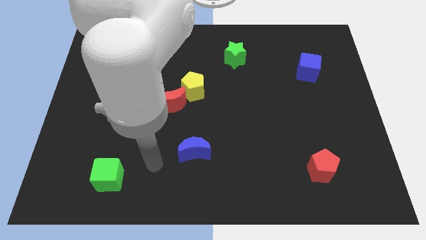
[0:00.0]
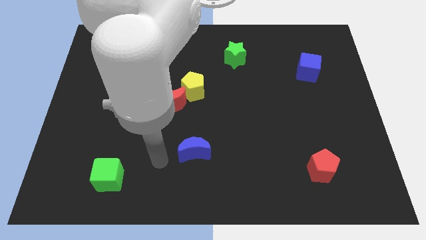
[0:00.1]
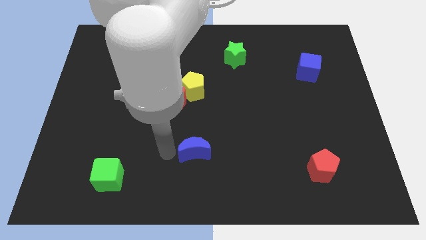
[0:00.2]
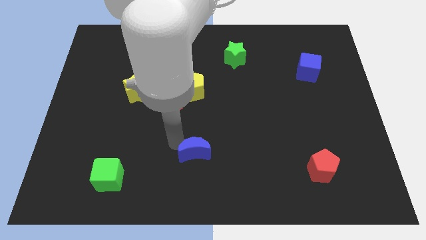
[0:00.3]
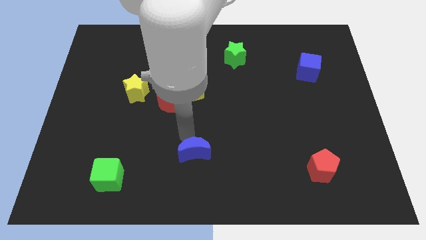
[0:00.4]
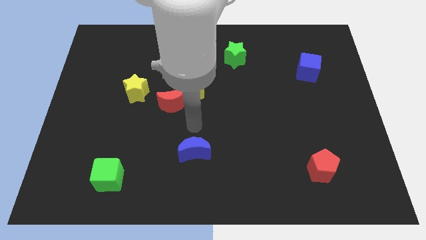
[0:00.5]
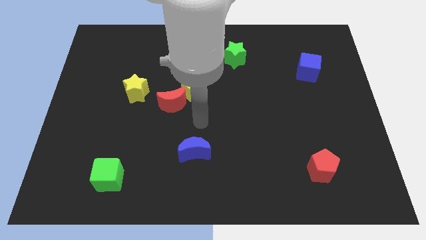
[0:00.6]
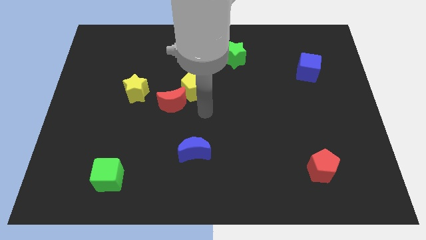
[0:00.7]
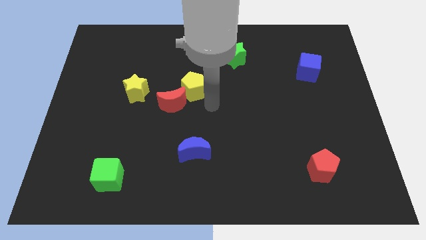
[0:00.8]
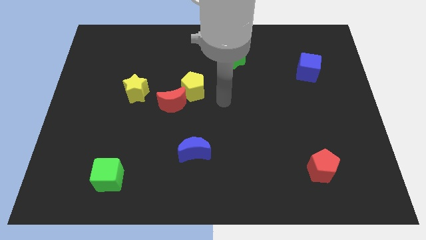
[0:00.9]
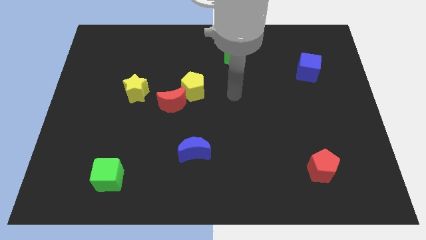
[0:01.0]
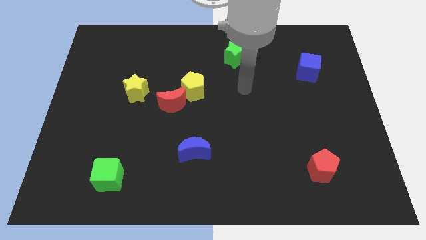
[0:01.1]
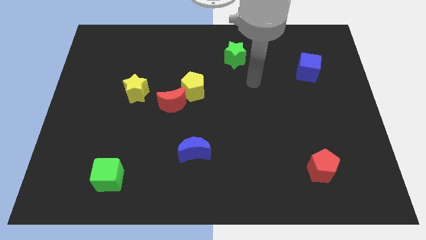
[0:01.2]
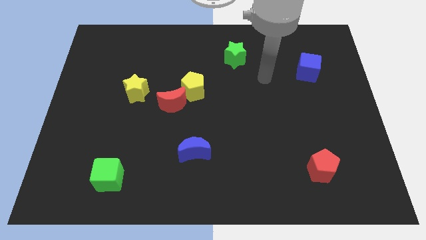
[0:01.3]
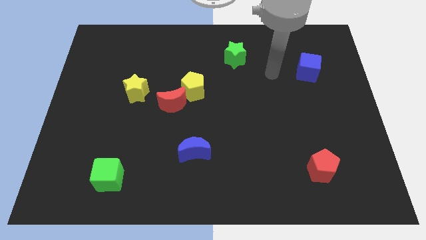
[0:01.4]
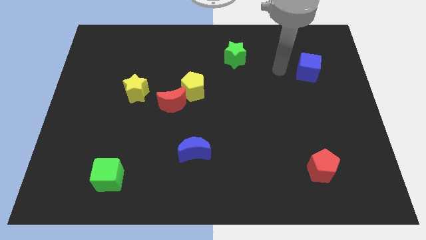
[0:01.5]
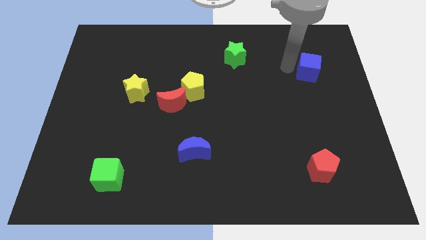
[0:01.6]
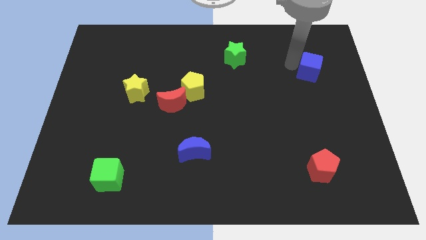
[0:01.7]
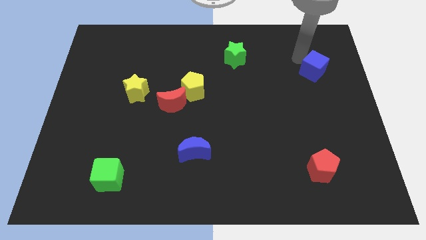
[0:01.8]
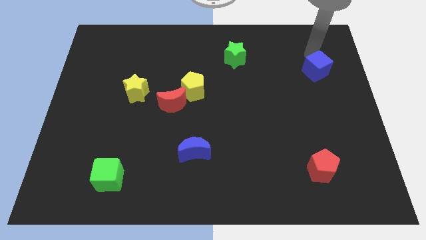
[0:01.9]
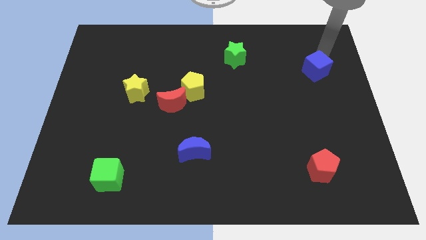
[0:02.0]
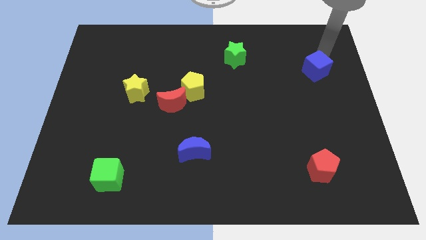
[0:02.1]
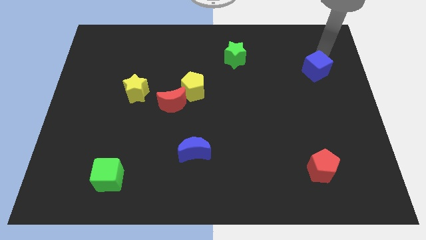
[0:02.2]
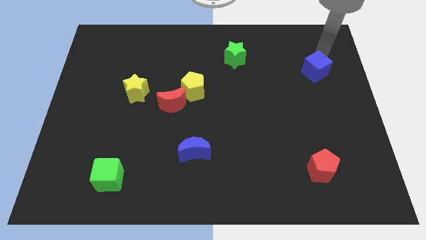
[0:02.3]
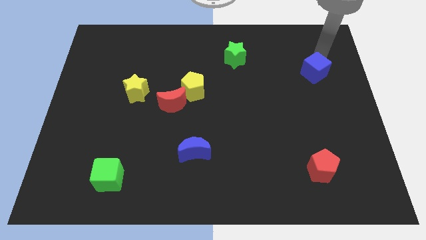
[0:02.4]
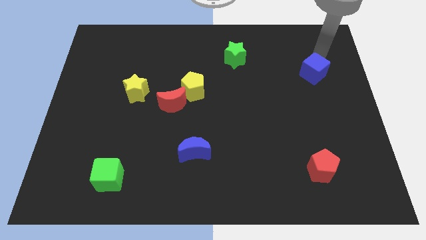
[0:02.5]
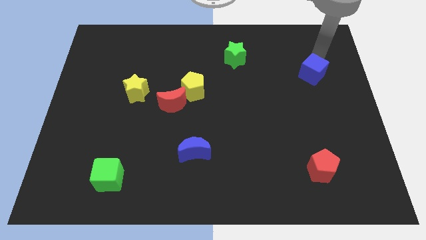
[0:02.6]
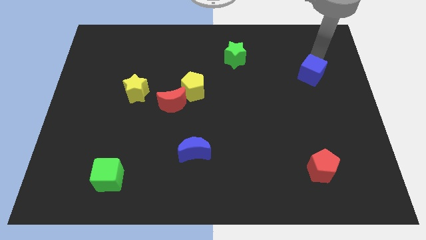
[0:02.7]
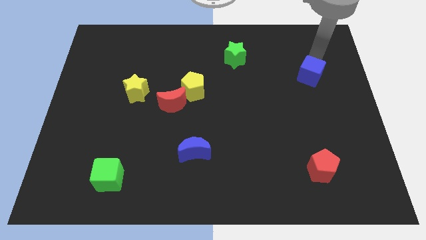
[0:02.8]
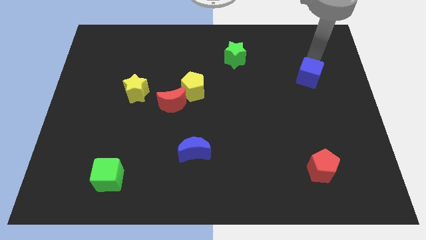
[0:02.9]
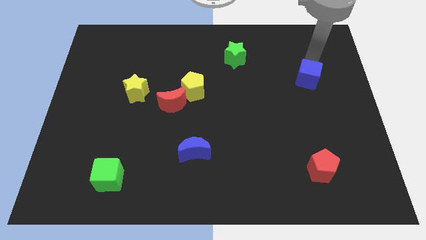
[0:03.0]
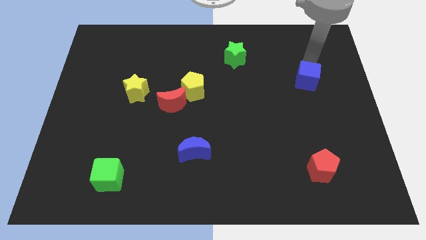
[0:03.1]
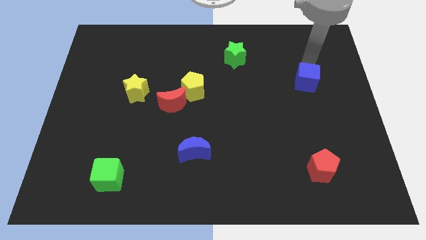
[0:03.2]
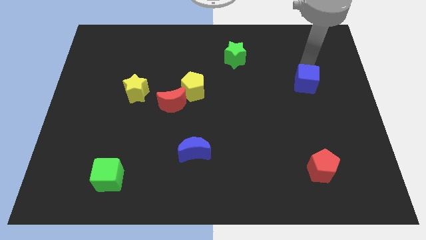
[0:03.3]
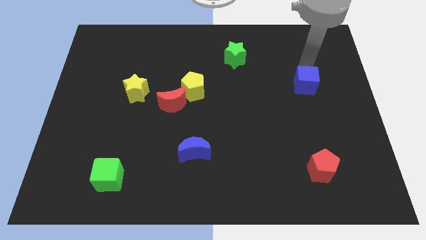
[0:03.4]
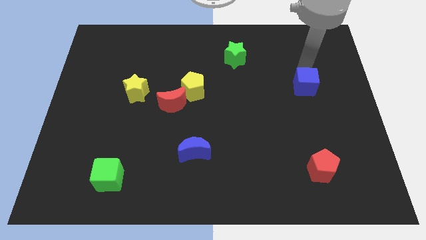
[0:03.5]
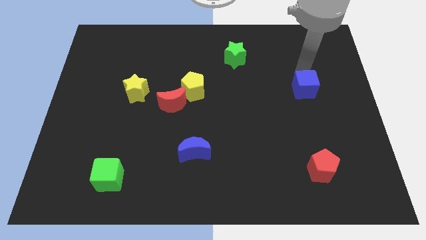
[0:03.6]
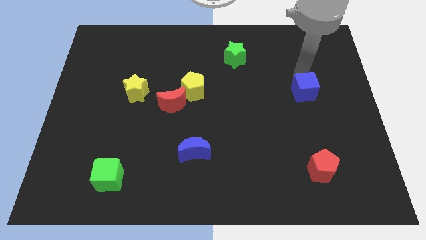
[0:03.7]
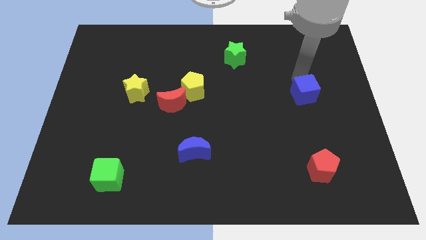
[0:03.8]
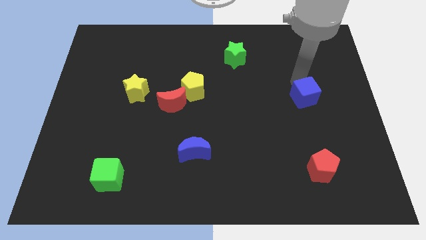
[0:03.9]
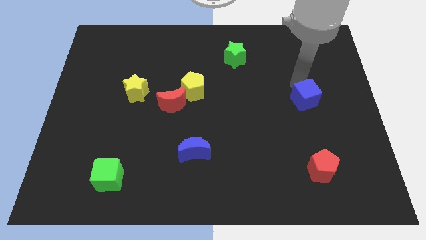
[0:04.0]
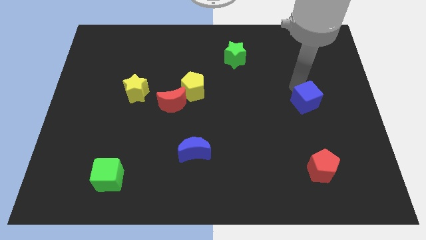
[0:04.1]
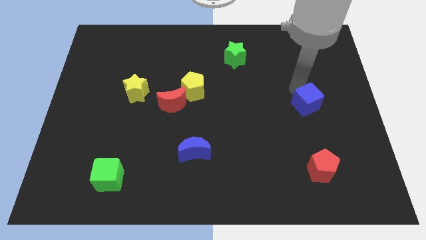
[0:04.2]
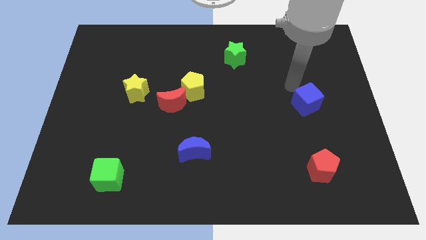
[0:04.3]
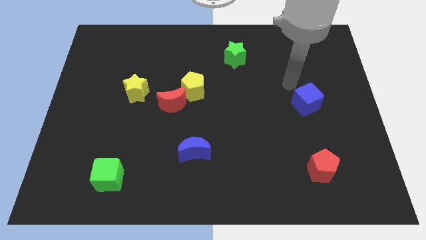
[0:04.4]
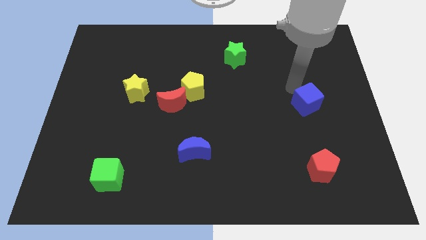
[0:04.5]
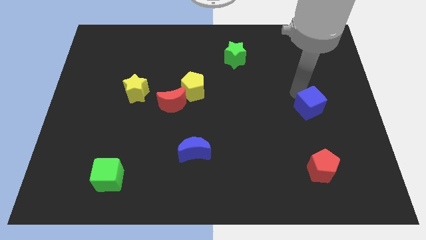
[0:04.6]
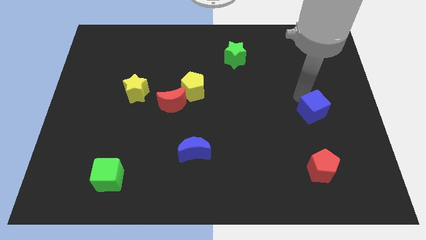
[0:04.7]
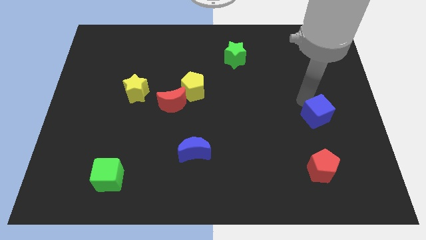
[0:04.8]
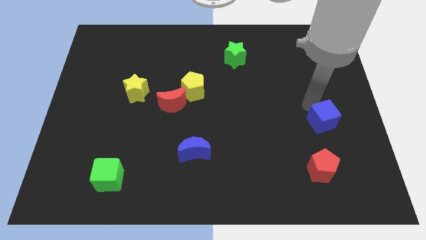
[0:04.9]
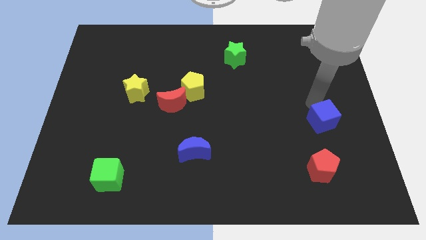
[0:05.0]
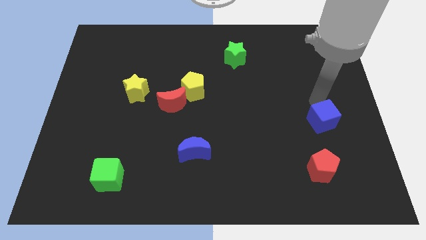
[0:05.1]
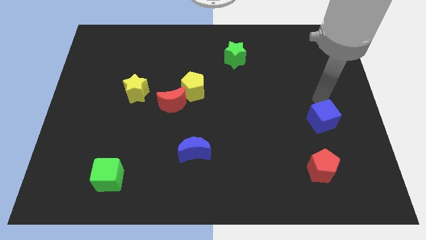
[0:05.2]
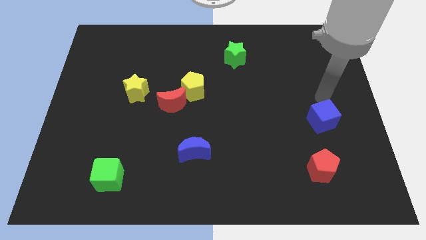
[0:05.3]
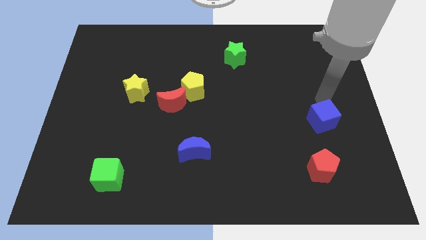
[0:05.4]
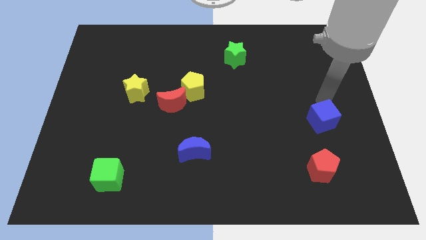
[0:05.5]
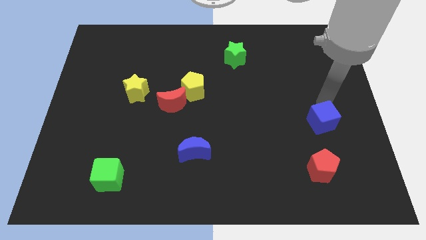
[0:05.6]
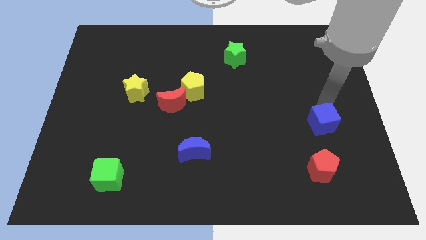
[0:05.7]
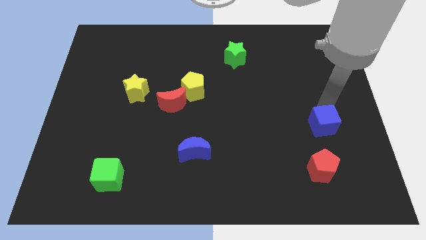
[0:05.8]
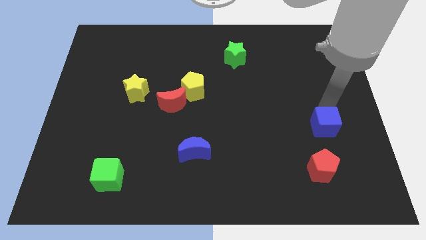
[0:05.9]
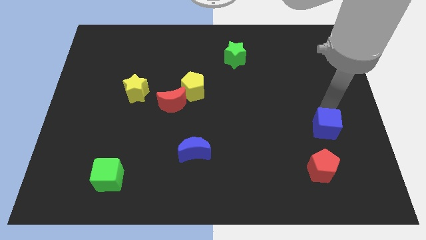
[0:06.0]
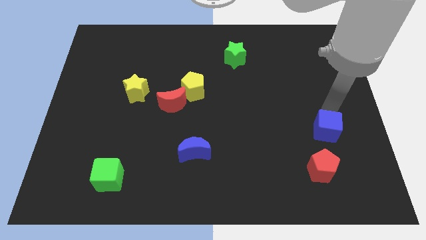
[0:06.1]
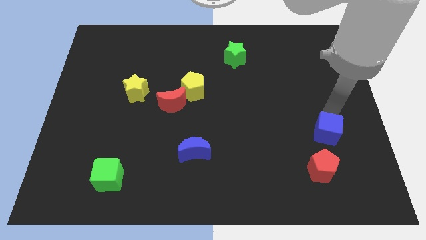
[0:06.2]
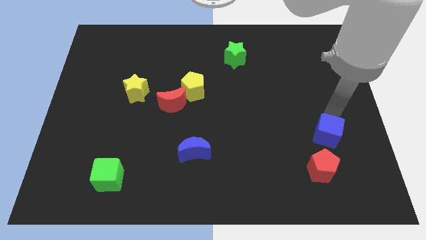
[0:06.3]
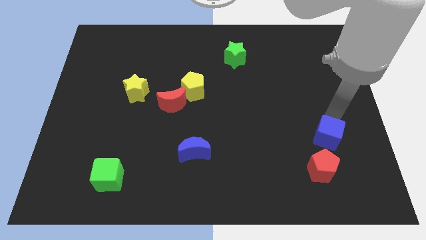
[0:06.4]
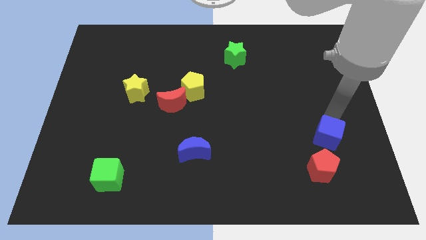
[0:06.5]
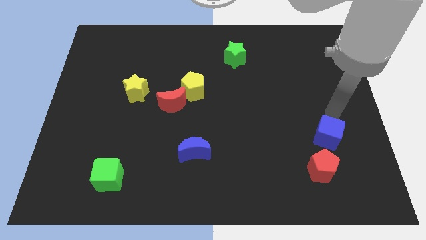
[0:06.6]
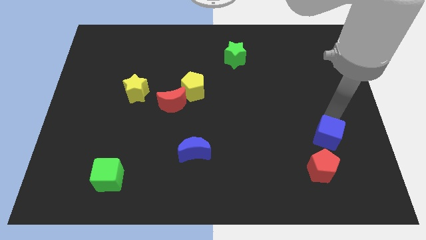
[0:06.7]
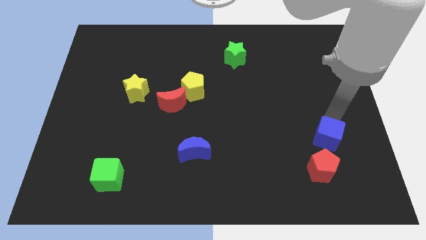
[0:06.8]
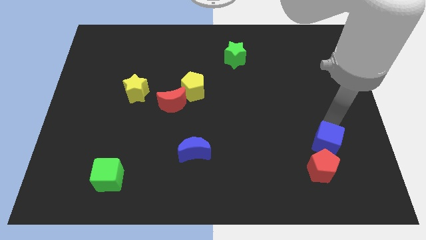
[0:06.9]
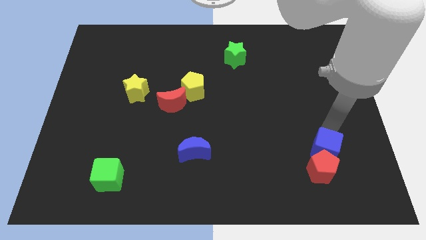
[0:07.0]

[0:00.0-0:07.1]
put the blue cube close to the red pentagon

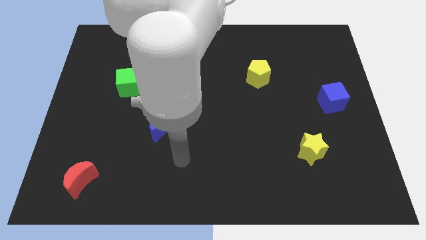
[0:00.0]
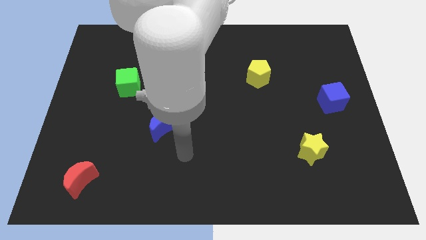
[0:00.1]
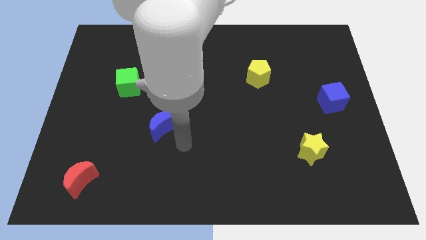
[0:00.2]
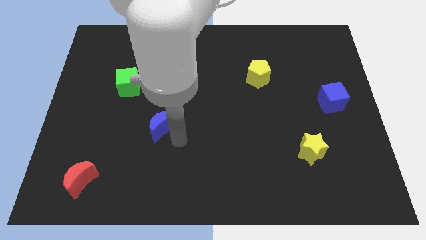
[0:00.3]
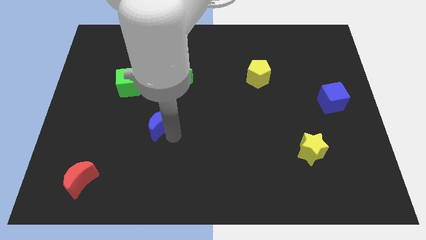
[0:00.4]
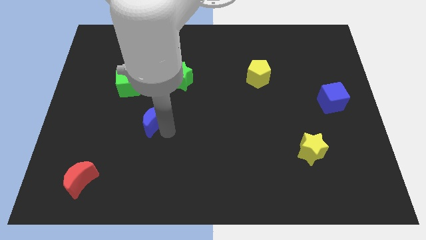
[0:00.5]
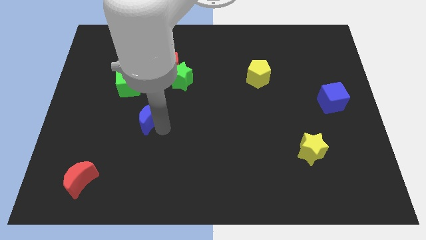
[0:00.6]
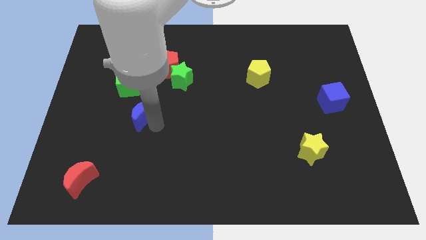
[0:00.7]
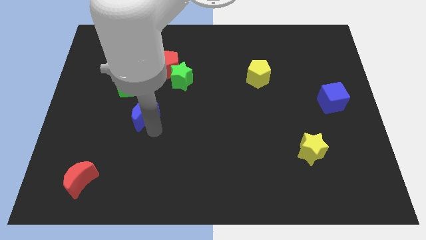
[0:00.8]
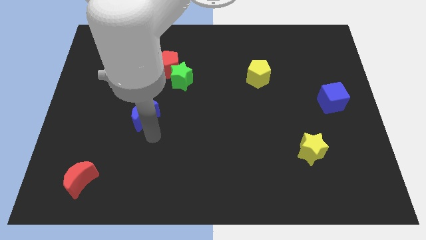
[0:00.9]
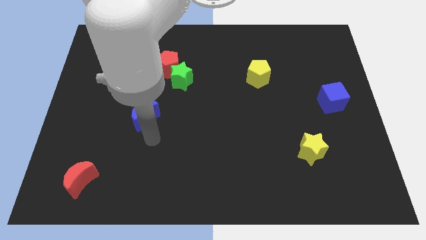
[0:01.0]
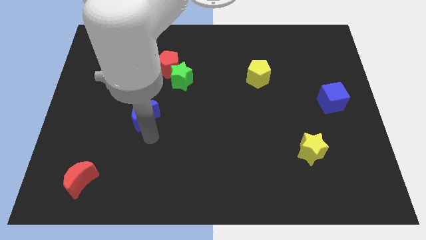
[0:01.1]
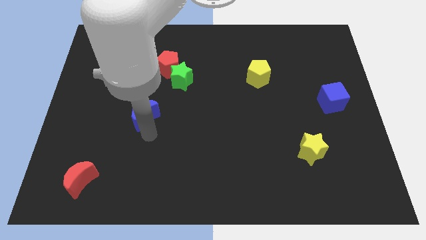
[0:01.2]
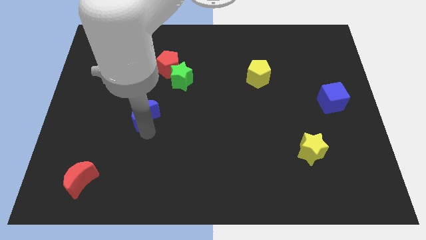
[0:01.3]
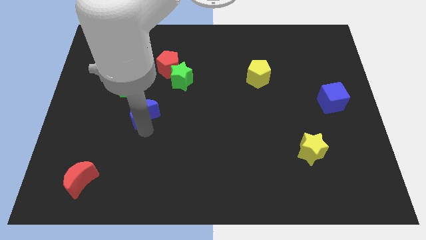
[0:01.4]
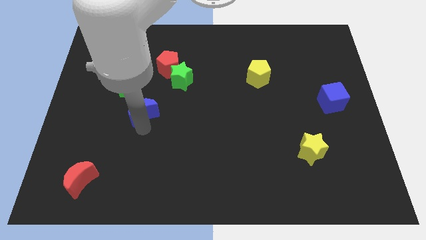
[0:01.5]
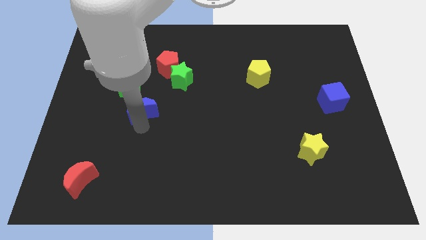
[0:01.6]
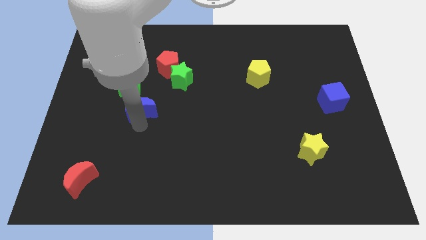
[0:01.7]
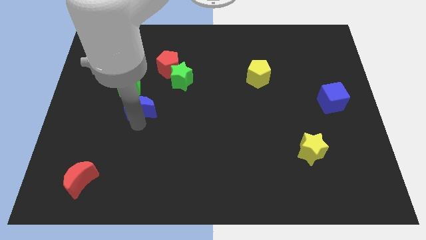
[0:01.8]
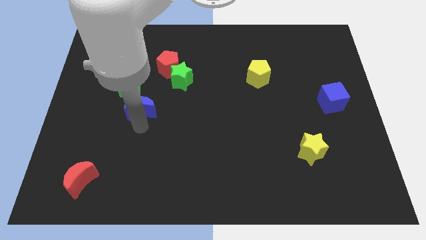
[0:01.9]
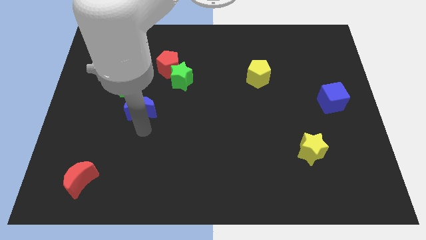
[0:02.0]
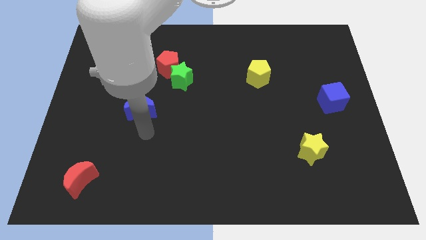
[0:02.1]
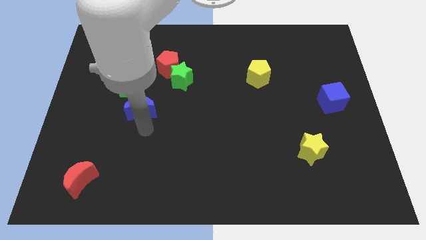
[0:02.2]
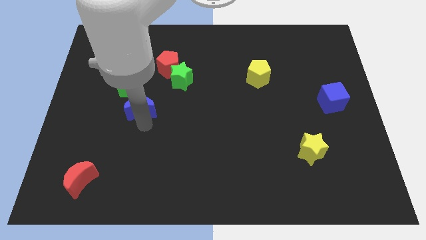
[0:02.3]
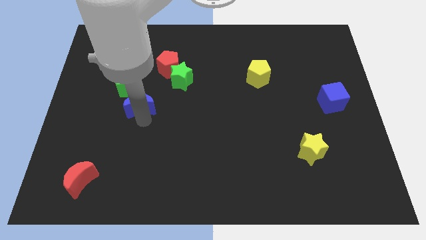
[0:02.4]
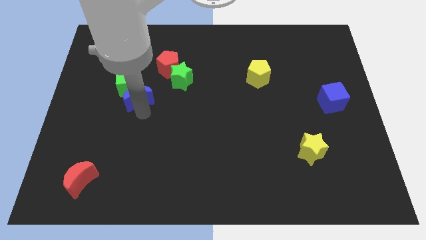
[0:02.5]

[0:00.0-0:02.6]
move the blue moon to the green cube
